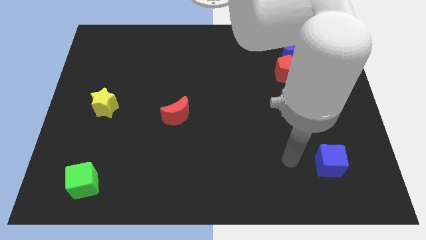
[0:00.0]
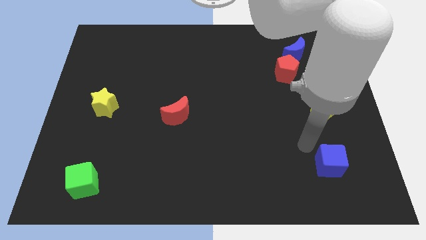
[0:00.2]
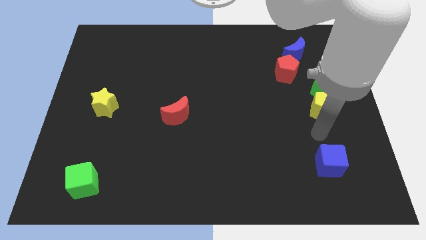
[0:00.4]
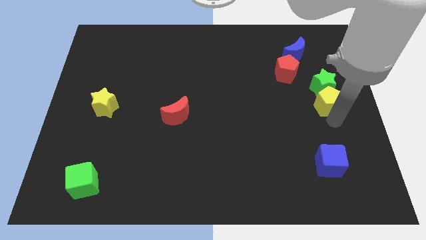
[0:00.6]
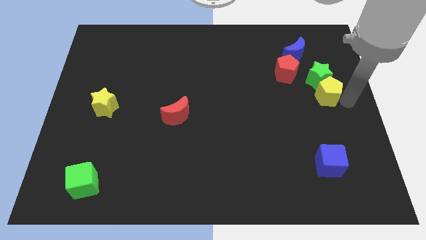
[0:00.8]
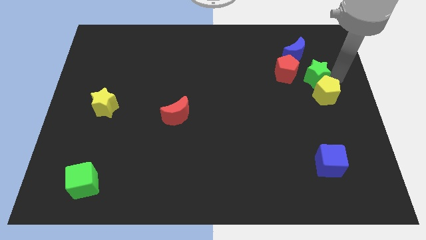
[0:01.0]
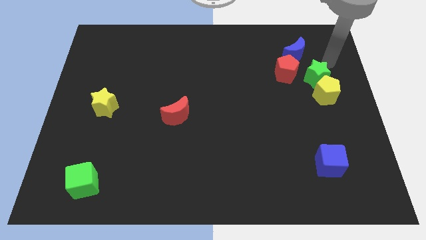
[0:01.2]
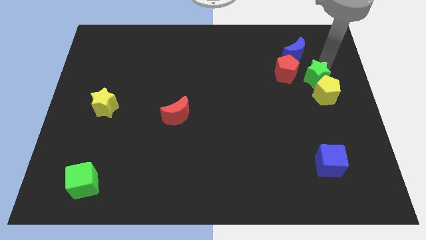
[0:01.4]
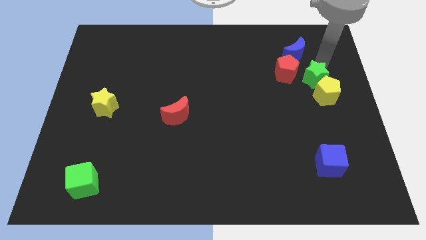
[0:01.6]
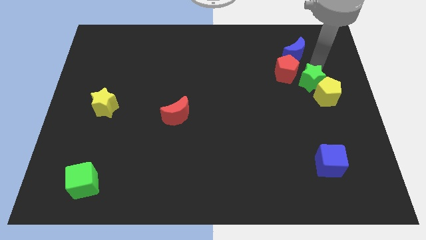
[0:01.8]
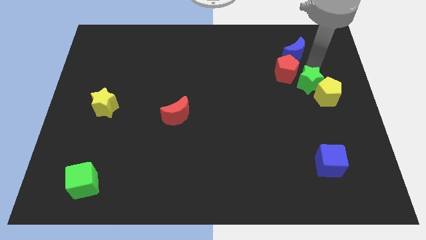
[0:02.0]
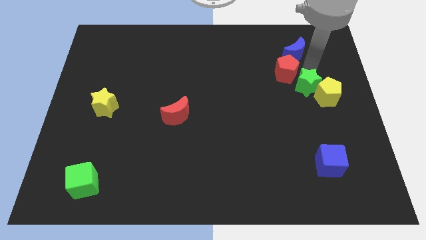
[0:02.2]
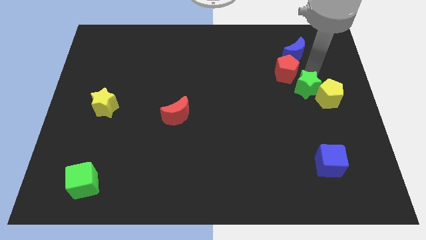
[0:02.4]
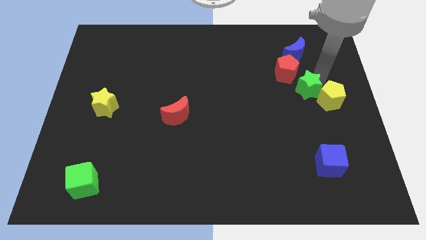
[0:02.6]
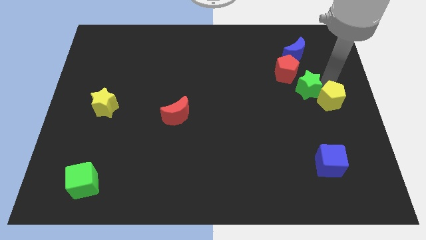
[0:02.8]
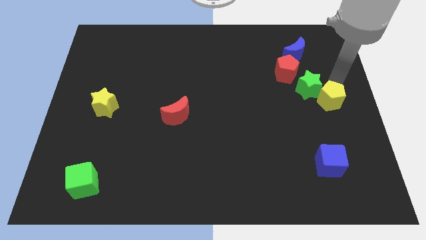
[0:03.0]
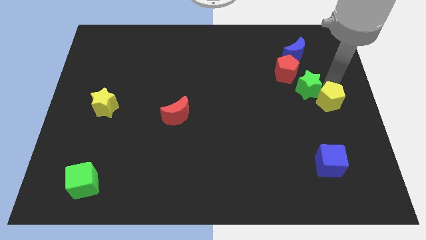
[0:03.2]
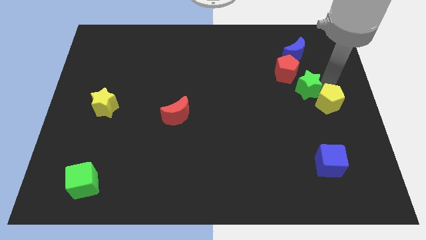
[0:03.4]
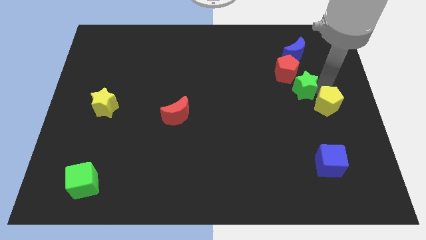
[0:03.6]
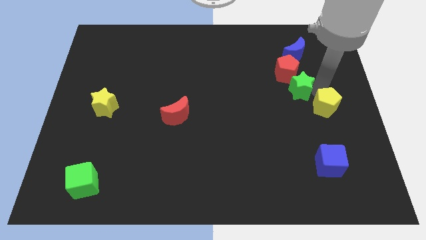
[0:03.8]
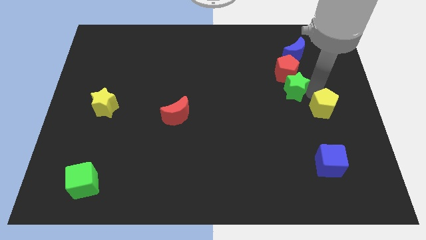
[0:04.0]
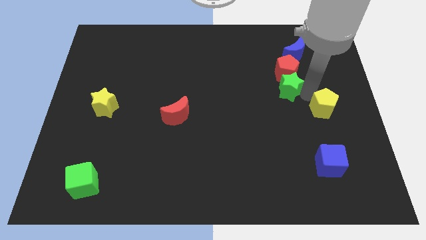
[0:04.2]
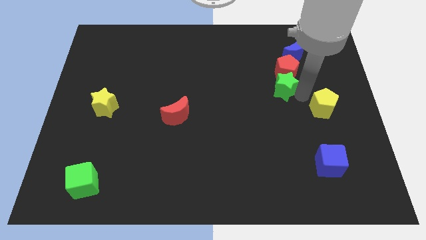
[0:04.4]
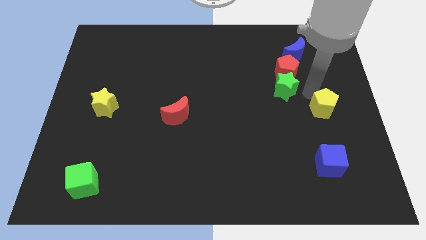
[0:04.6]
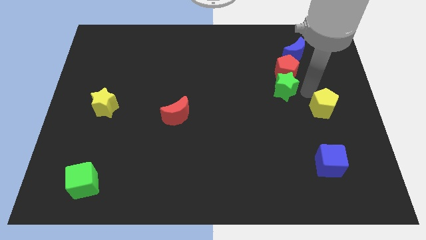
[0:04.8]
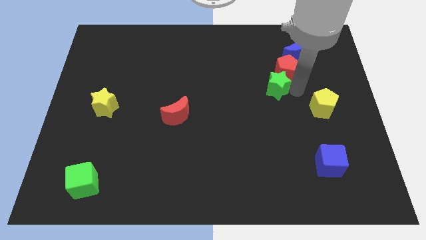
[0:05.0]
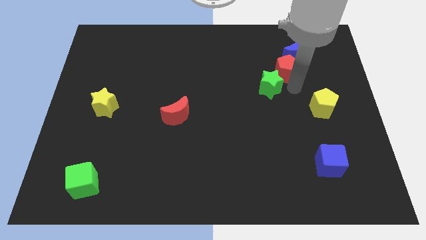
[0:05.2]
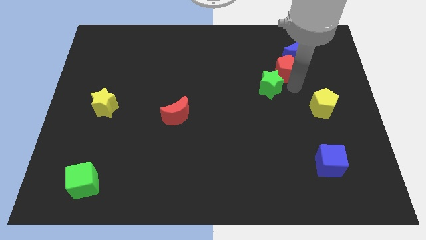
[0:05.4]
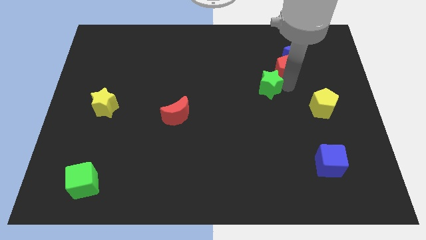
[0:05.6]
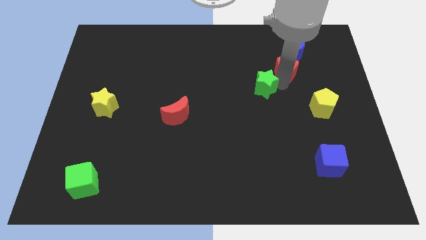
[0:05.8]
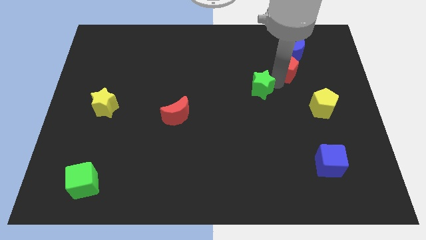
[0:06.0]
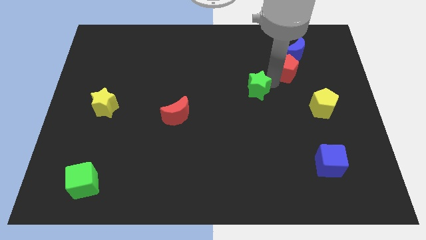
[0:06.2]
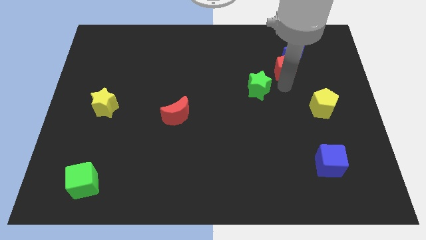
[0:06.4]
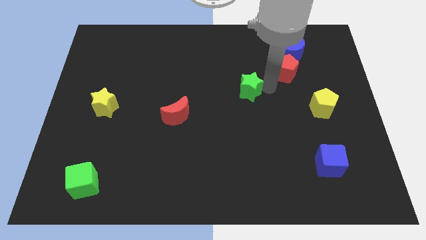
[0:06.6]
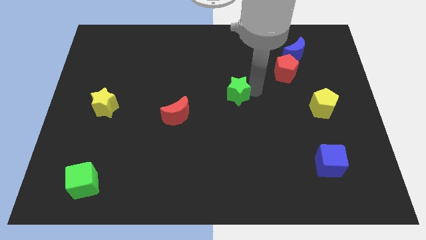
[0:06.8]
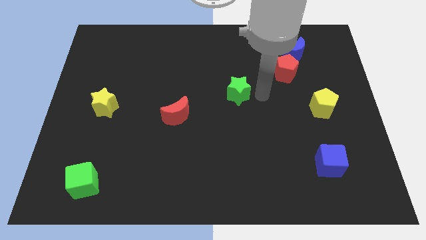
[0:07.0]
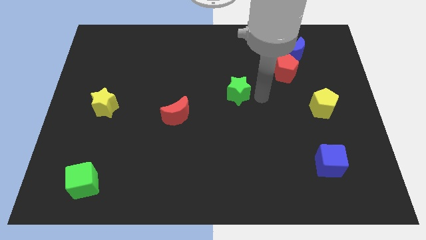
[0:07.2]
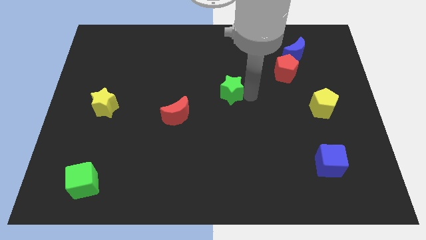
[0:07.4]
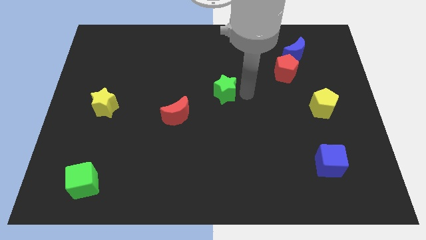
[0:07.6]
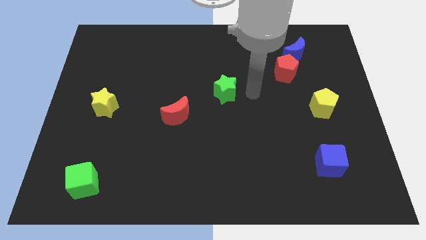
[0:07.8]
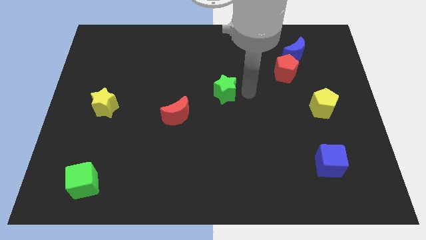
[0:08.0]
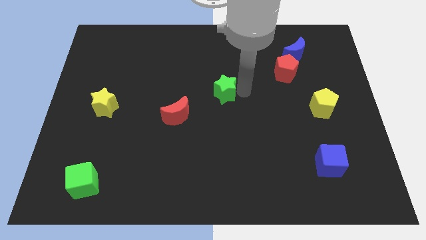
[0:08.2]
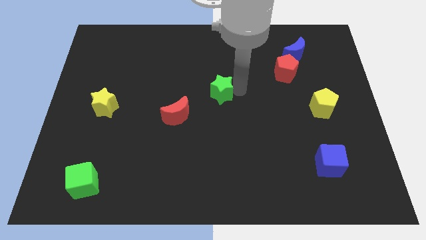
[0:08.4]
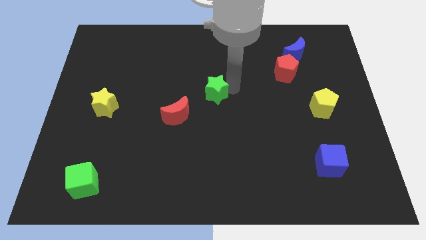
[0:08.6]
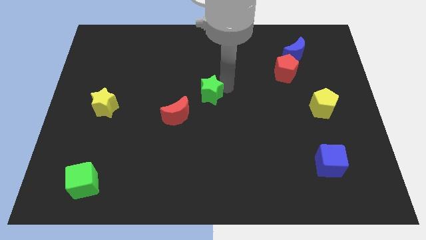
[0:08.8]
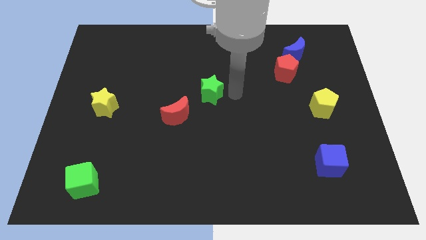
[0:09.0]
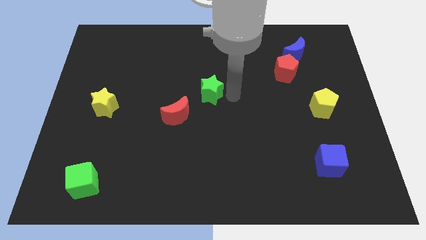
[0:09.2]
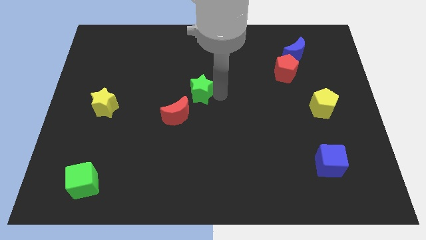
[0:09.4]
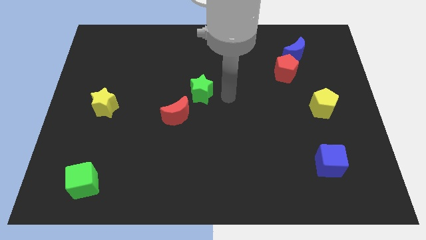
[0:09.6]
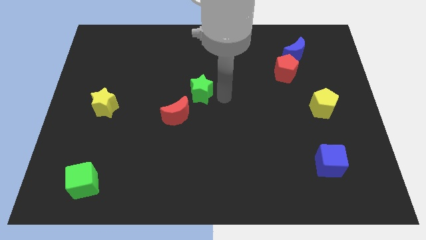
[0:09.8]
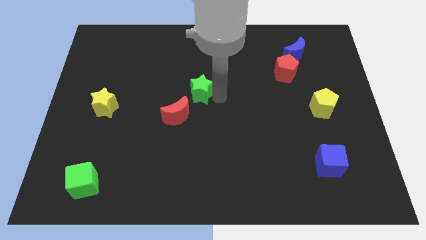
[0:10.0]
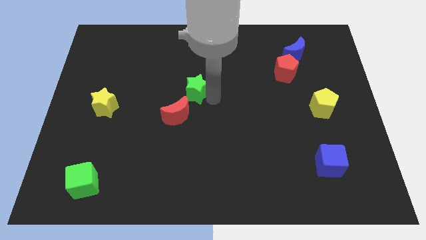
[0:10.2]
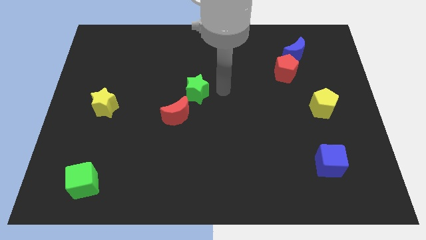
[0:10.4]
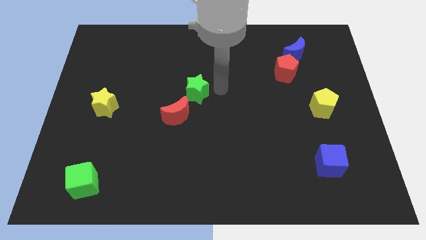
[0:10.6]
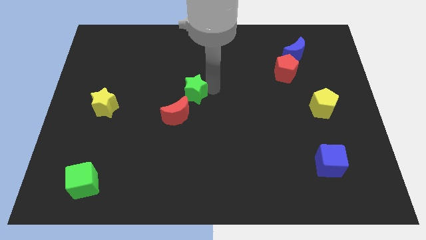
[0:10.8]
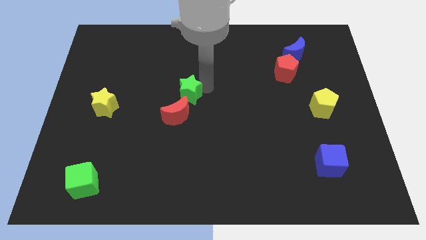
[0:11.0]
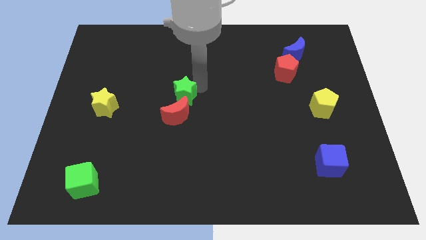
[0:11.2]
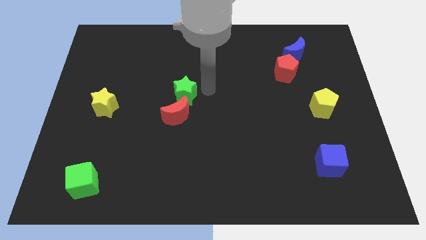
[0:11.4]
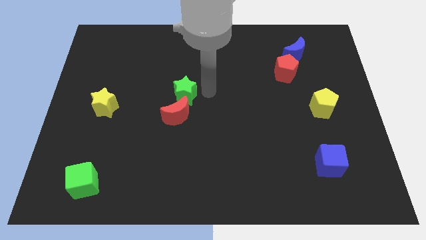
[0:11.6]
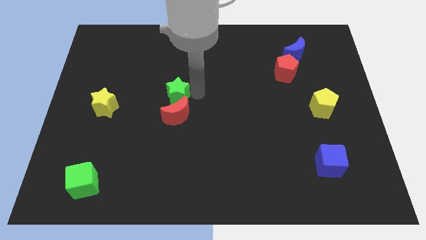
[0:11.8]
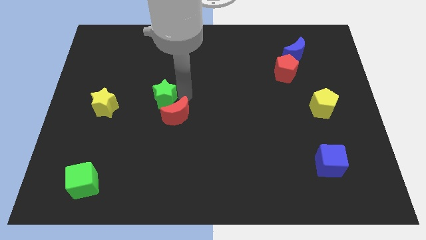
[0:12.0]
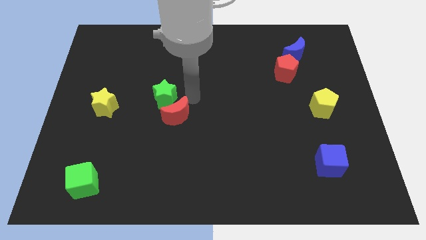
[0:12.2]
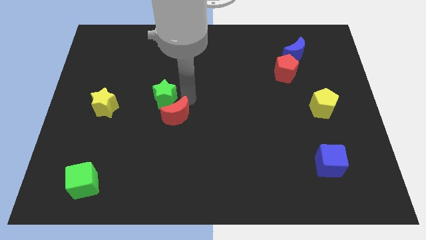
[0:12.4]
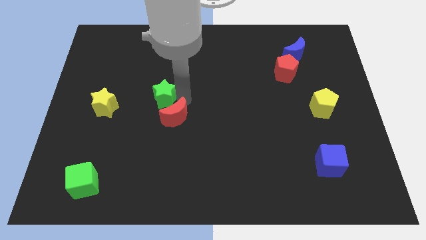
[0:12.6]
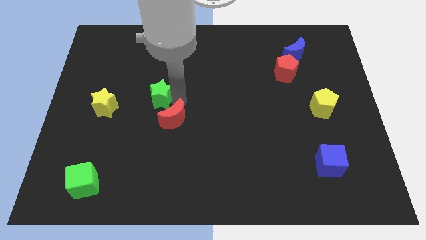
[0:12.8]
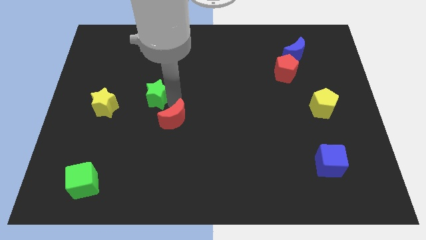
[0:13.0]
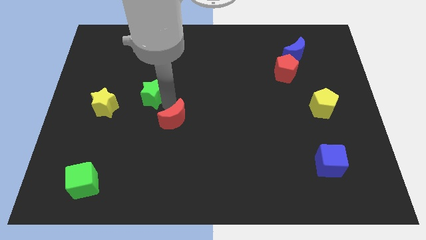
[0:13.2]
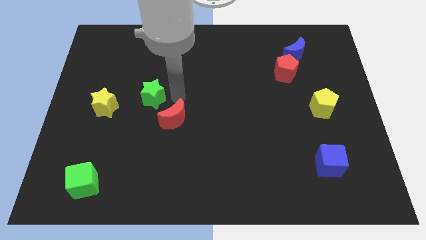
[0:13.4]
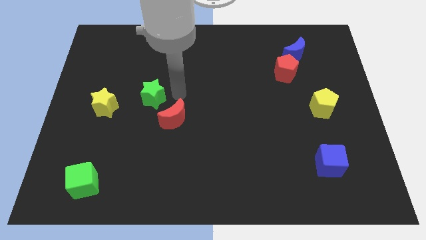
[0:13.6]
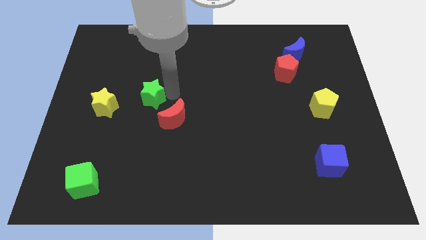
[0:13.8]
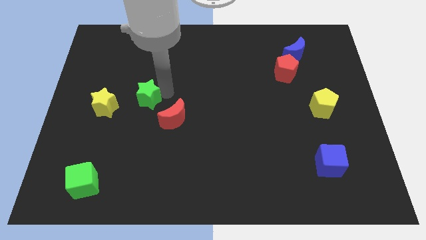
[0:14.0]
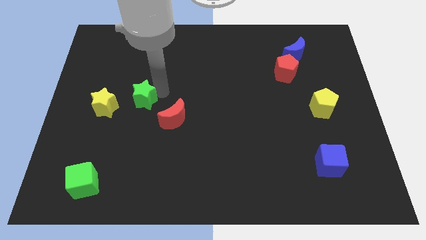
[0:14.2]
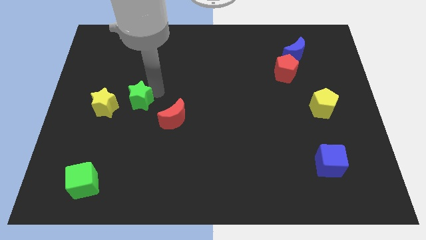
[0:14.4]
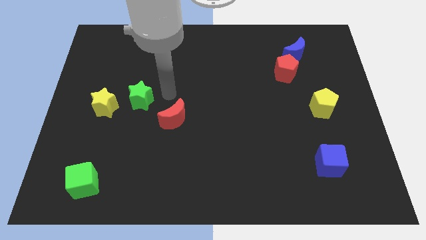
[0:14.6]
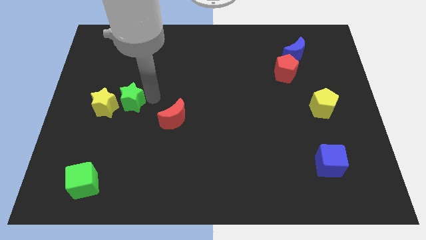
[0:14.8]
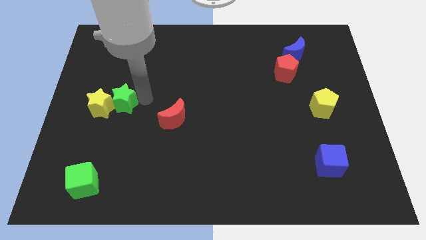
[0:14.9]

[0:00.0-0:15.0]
slide the green star next to the yellow star
